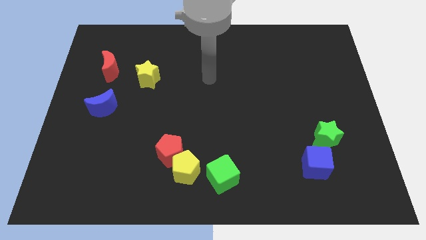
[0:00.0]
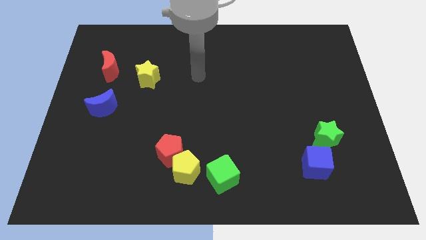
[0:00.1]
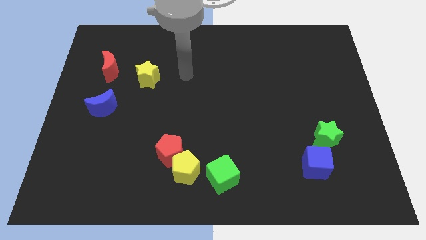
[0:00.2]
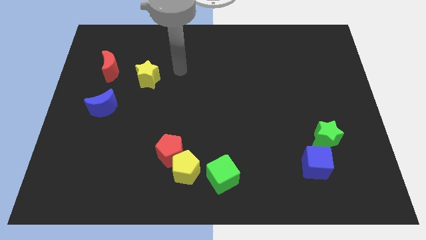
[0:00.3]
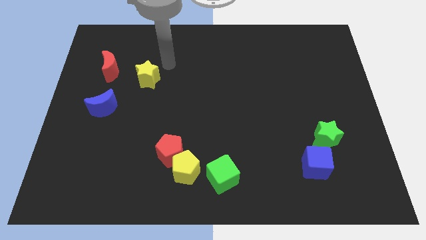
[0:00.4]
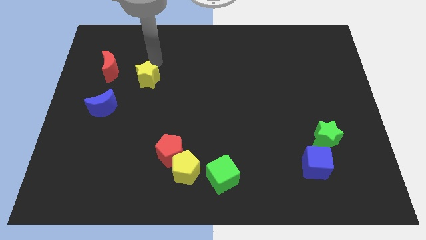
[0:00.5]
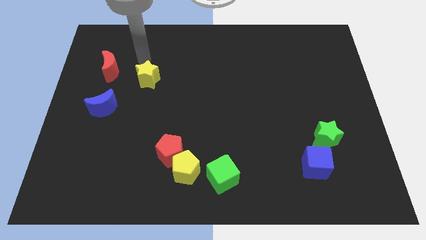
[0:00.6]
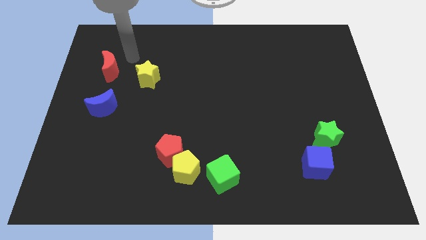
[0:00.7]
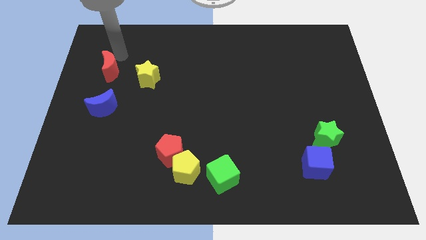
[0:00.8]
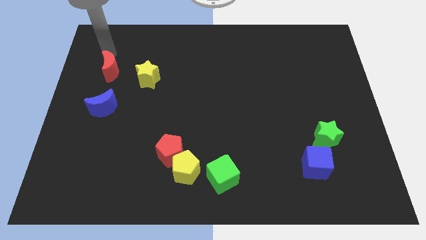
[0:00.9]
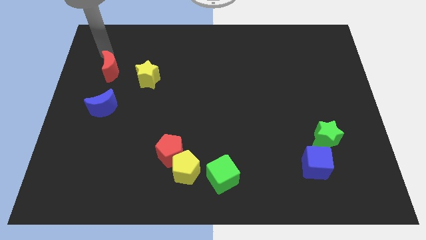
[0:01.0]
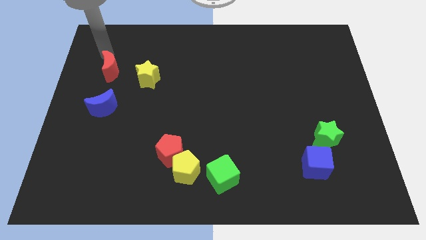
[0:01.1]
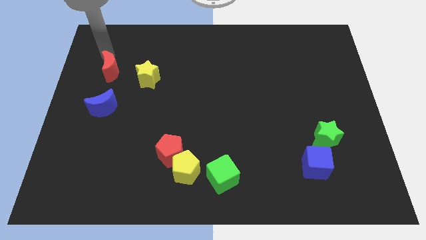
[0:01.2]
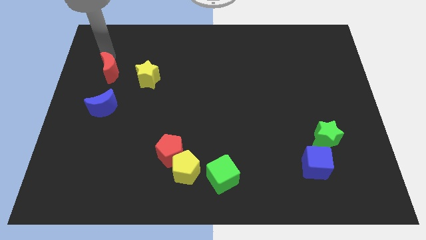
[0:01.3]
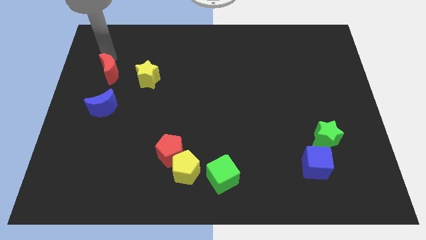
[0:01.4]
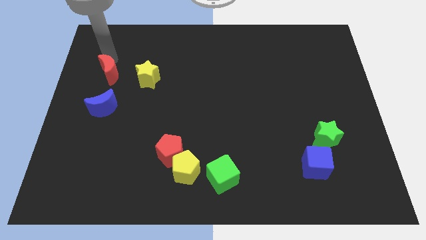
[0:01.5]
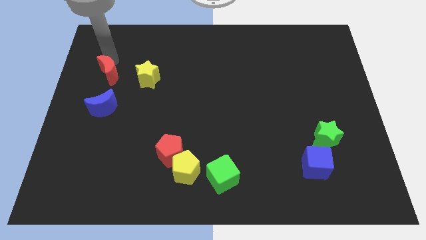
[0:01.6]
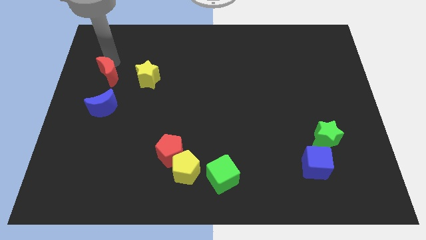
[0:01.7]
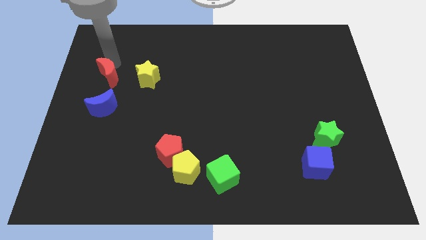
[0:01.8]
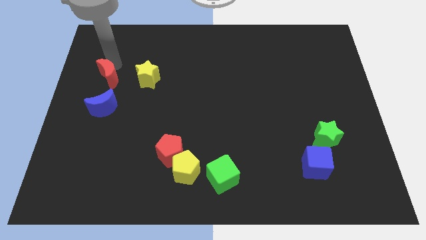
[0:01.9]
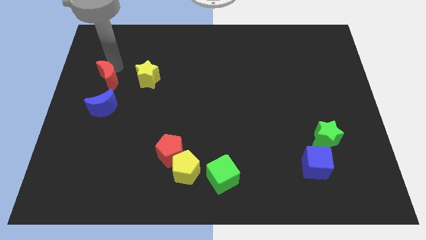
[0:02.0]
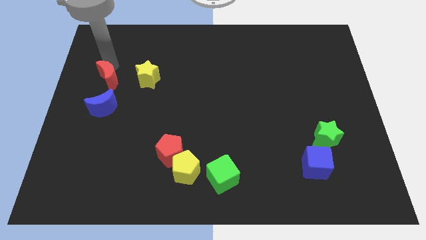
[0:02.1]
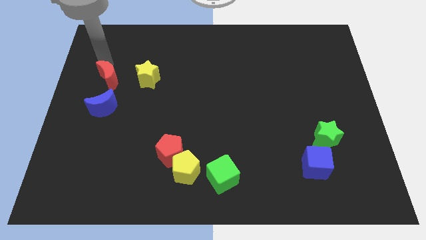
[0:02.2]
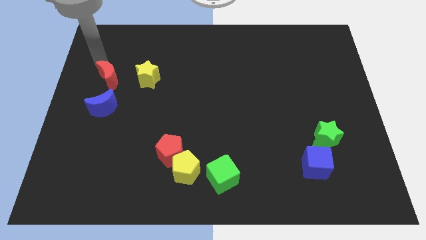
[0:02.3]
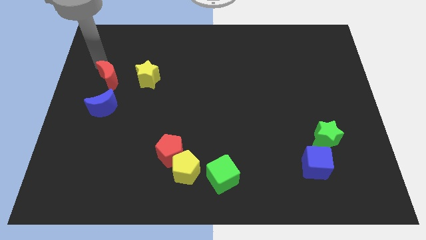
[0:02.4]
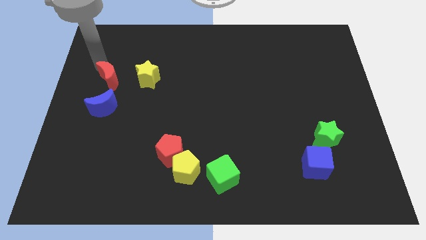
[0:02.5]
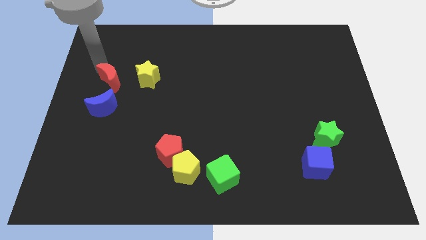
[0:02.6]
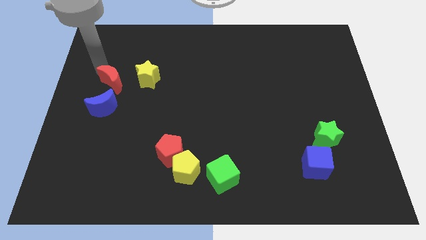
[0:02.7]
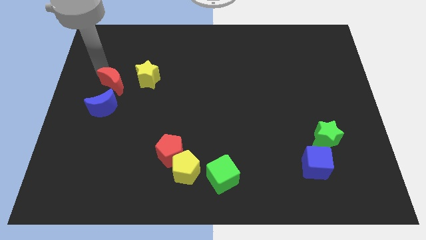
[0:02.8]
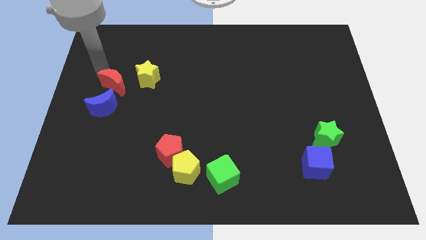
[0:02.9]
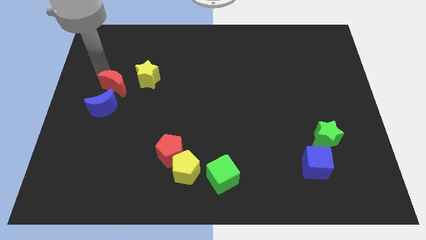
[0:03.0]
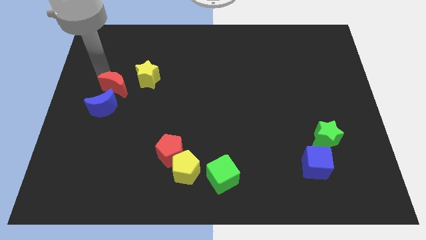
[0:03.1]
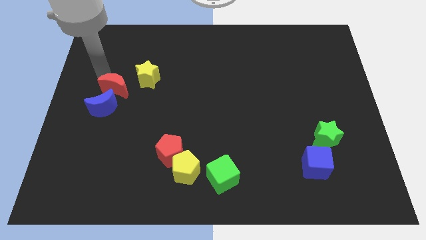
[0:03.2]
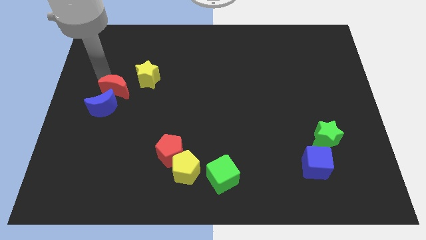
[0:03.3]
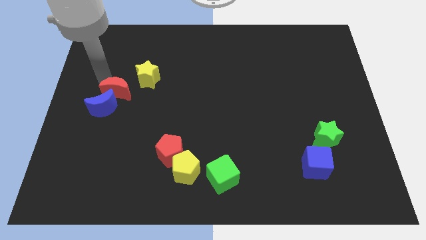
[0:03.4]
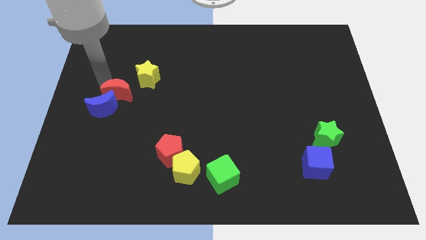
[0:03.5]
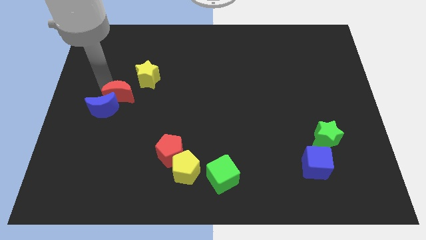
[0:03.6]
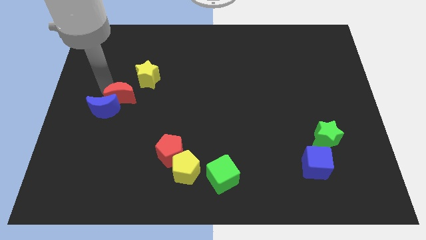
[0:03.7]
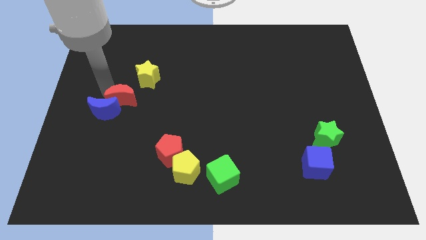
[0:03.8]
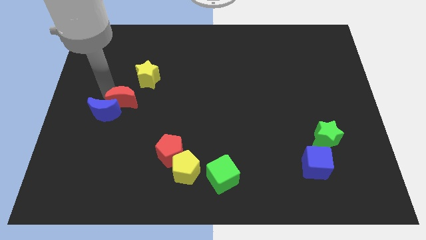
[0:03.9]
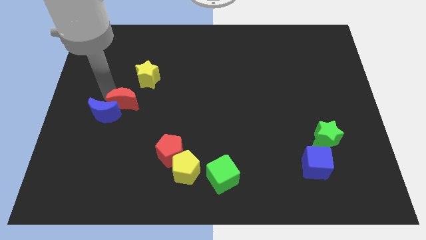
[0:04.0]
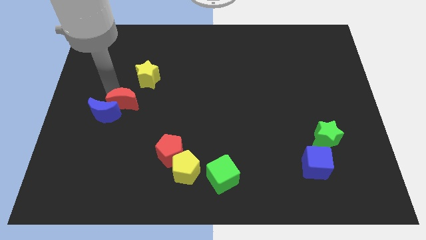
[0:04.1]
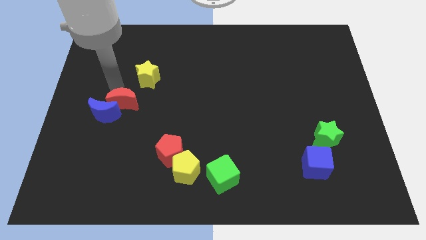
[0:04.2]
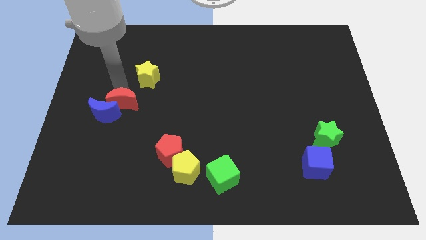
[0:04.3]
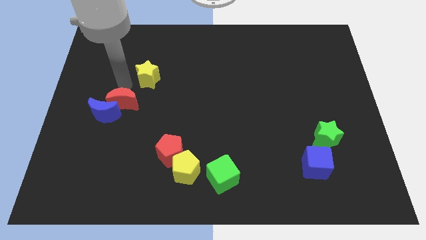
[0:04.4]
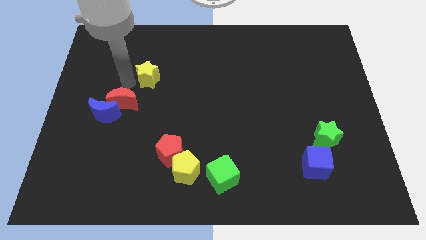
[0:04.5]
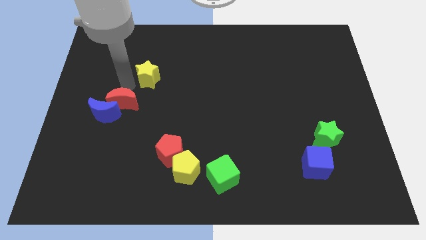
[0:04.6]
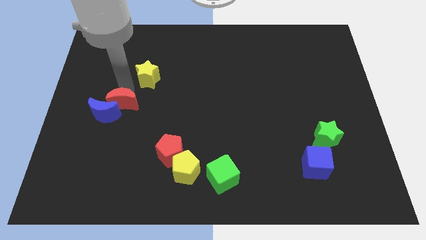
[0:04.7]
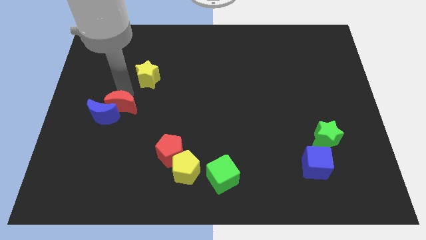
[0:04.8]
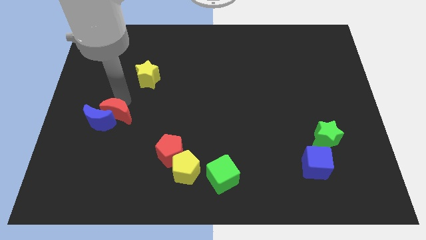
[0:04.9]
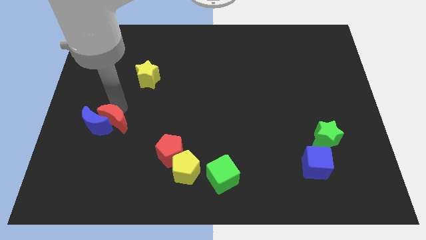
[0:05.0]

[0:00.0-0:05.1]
put the red moon to the bottom right side of the blue moon

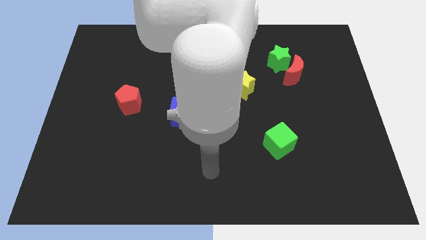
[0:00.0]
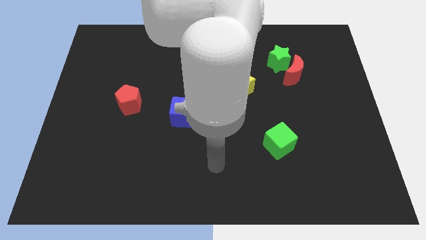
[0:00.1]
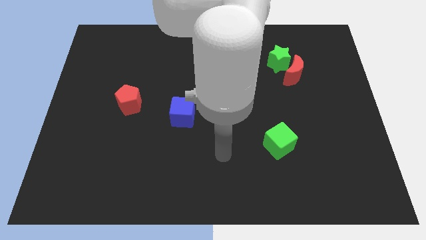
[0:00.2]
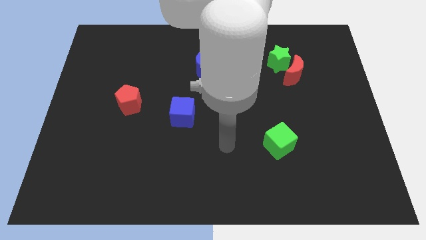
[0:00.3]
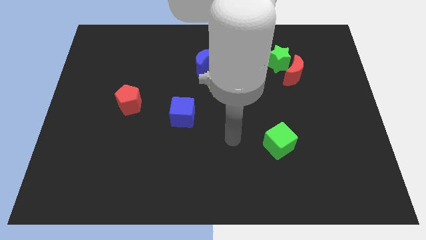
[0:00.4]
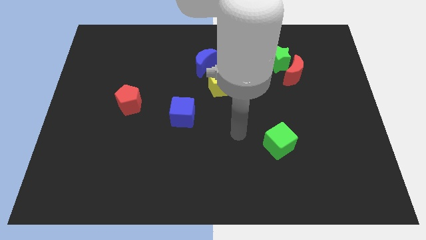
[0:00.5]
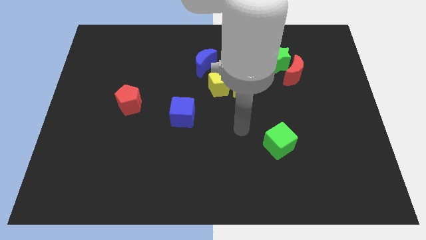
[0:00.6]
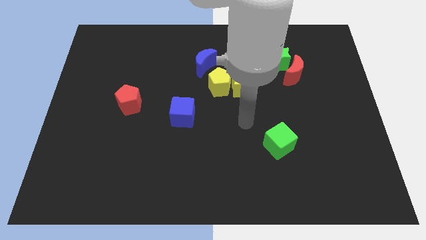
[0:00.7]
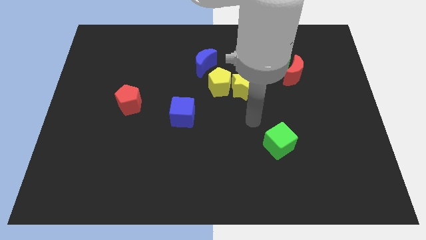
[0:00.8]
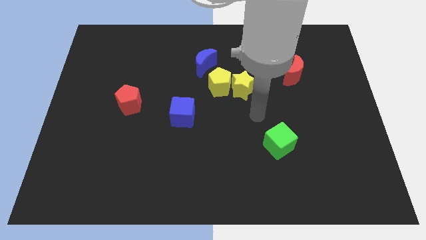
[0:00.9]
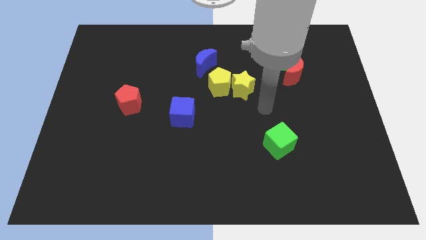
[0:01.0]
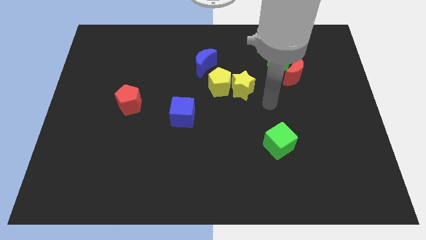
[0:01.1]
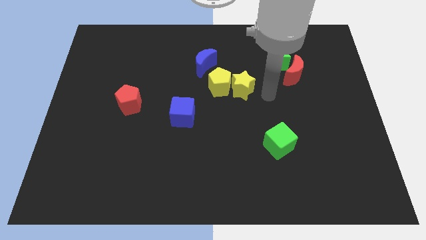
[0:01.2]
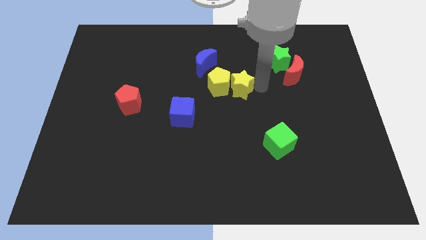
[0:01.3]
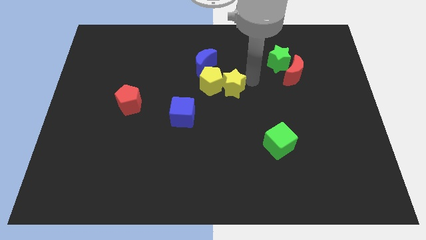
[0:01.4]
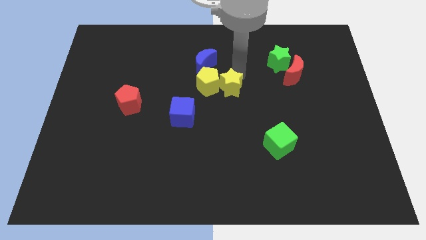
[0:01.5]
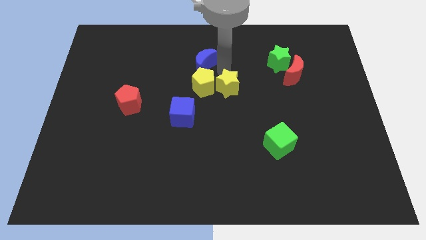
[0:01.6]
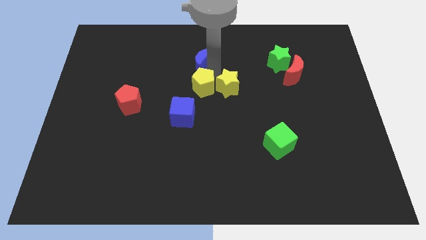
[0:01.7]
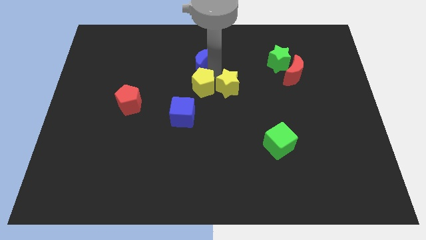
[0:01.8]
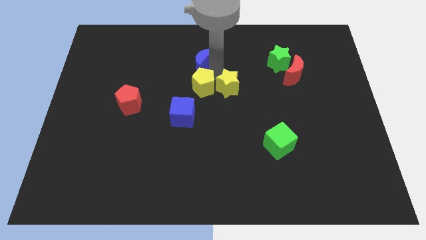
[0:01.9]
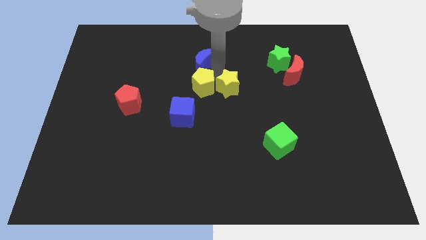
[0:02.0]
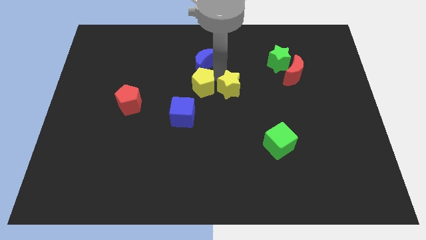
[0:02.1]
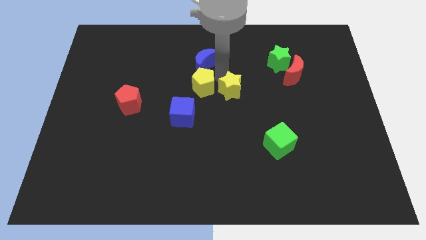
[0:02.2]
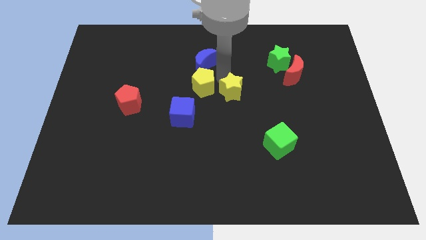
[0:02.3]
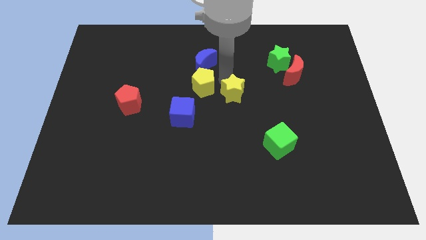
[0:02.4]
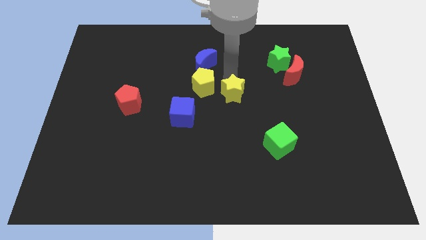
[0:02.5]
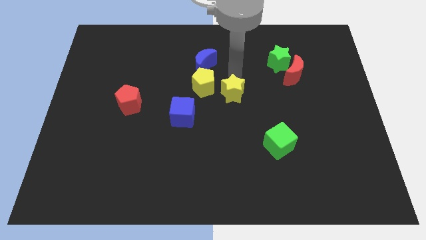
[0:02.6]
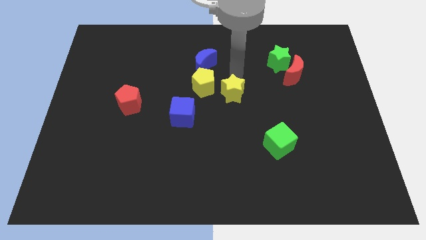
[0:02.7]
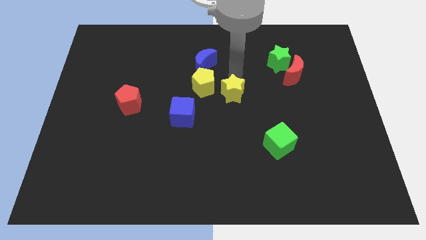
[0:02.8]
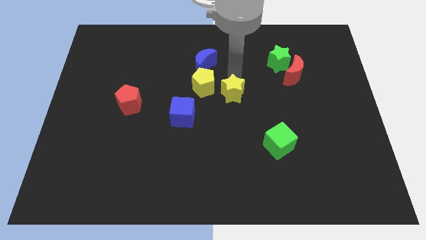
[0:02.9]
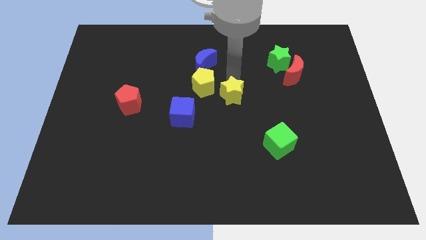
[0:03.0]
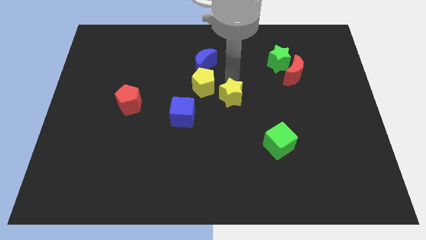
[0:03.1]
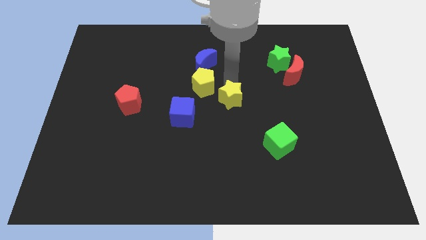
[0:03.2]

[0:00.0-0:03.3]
move the yellow star right of the blue cube
